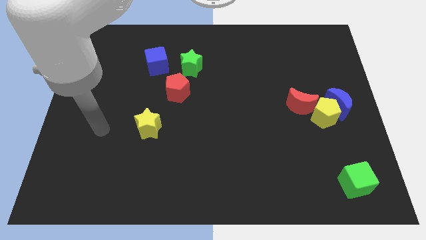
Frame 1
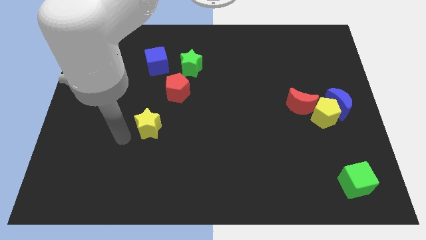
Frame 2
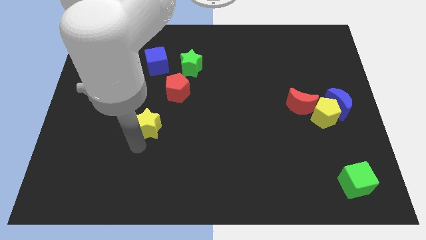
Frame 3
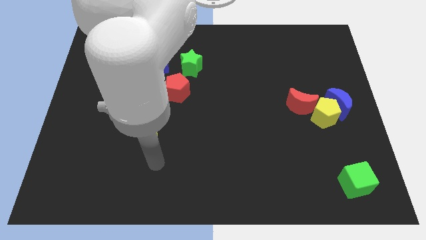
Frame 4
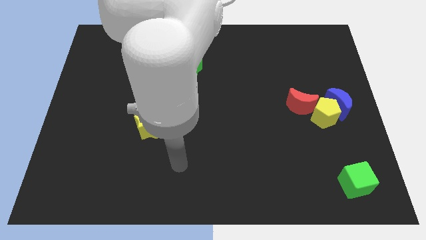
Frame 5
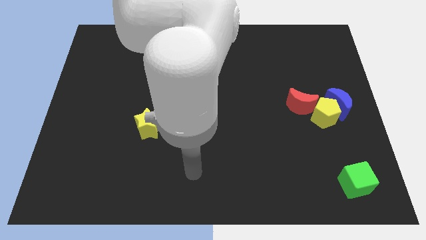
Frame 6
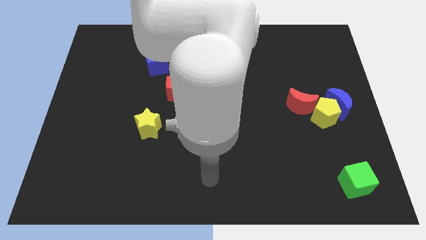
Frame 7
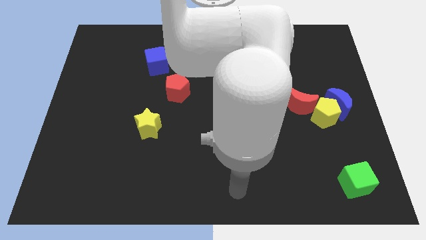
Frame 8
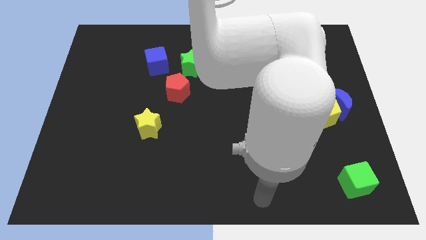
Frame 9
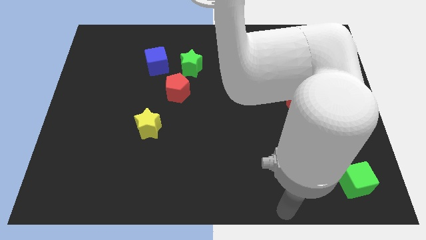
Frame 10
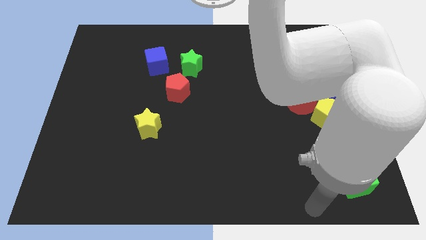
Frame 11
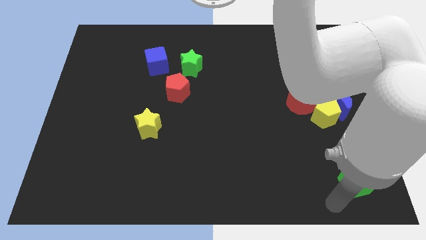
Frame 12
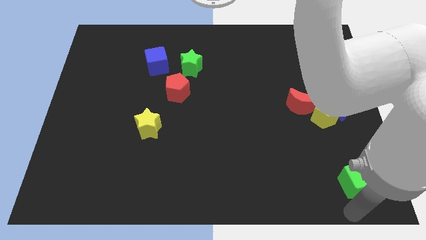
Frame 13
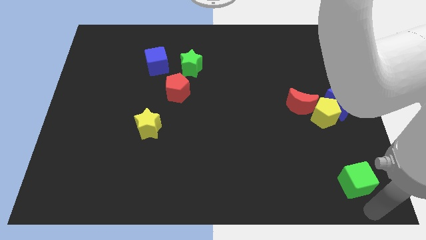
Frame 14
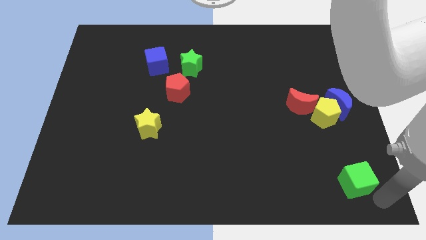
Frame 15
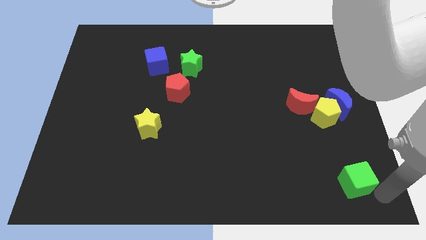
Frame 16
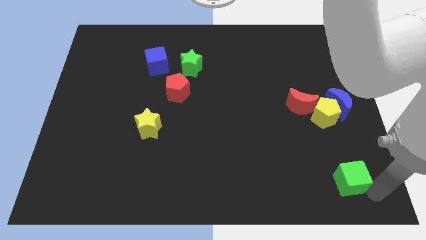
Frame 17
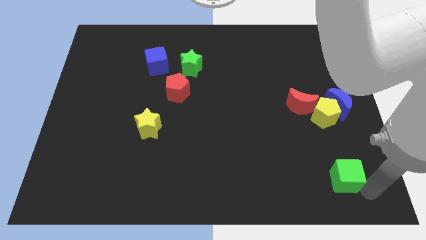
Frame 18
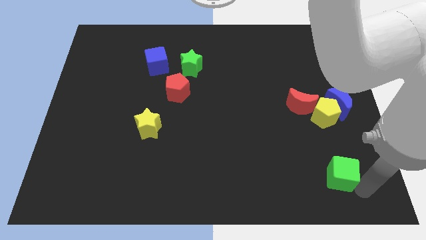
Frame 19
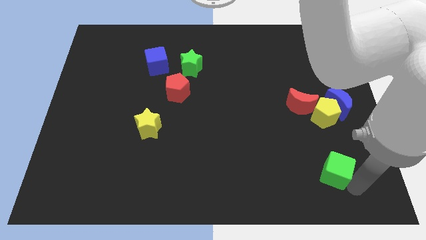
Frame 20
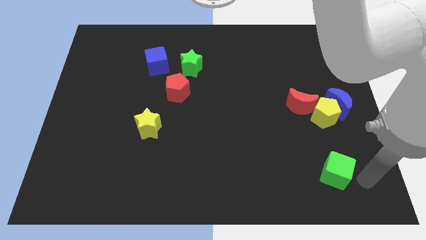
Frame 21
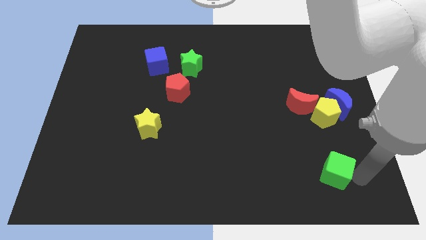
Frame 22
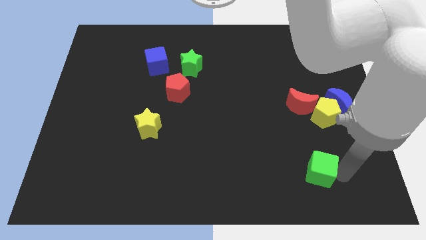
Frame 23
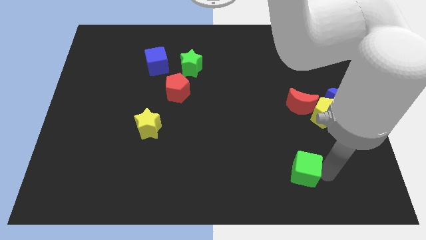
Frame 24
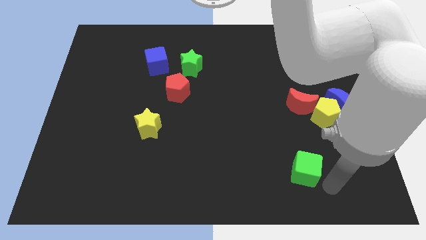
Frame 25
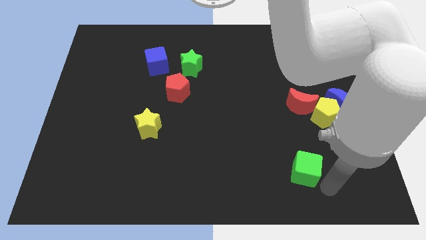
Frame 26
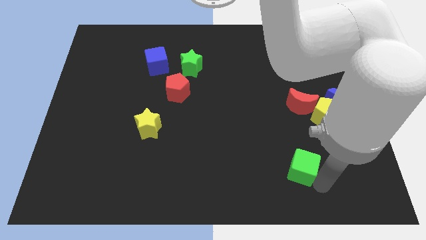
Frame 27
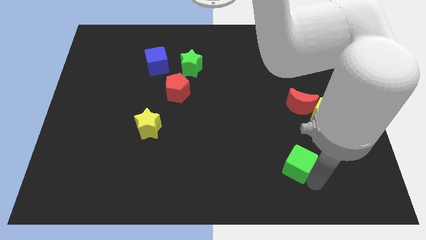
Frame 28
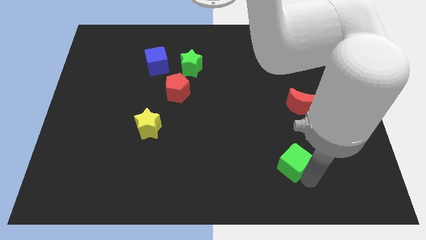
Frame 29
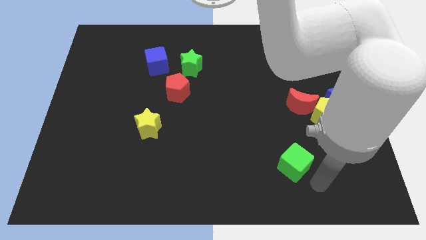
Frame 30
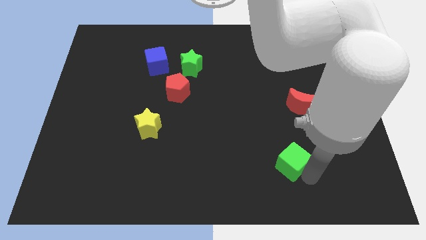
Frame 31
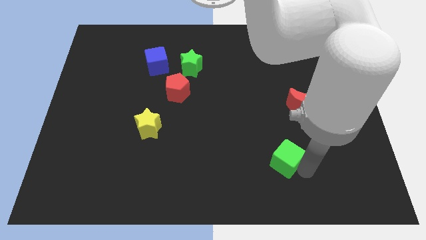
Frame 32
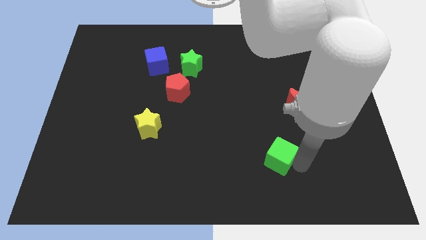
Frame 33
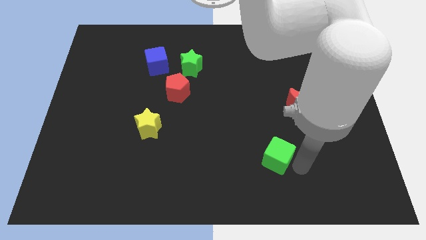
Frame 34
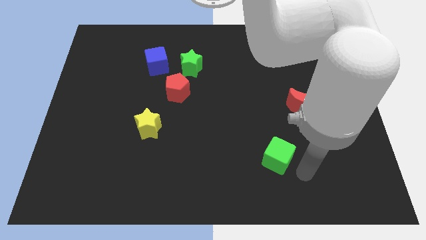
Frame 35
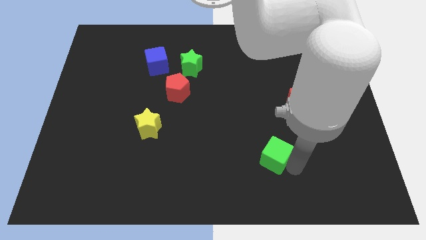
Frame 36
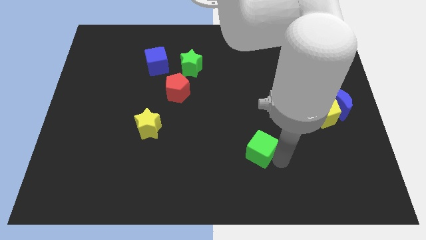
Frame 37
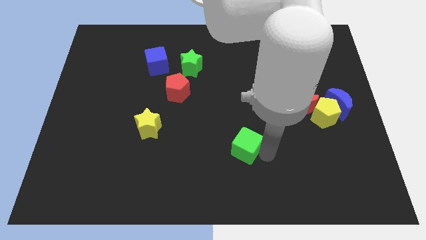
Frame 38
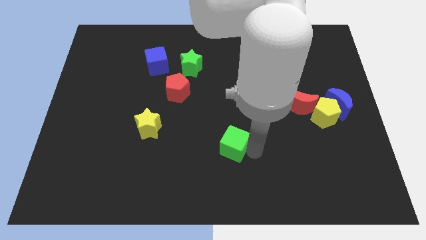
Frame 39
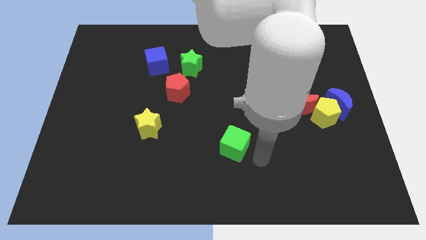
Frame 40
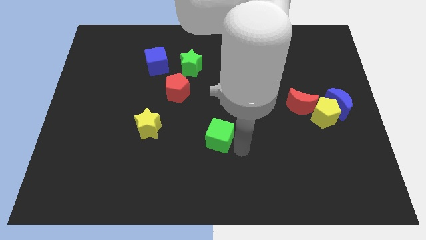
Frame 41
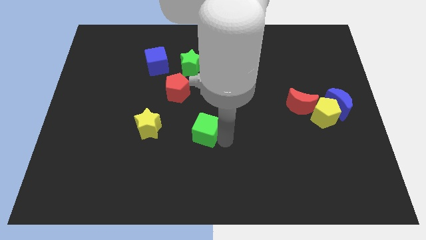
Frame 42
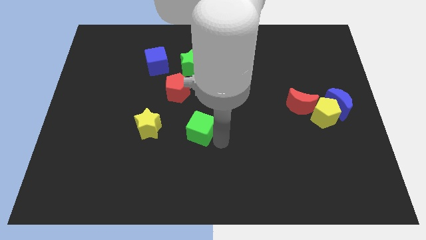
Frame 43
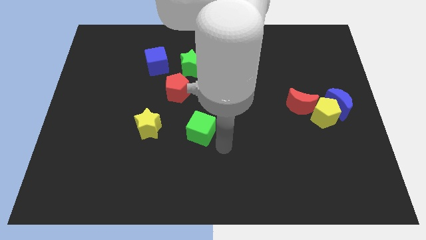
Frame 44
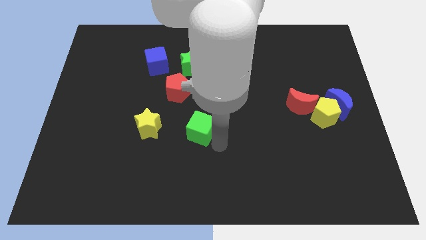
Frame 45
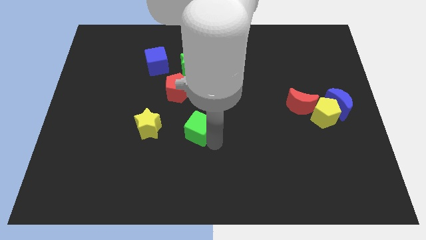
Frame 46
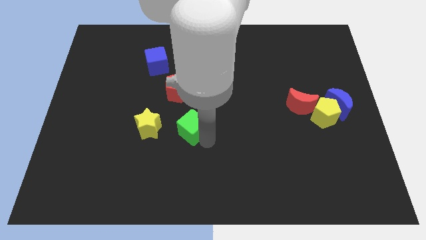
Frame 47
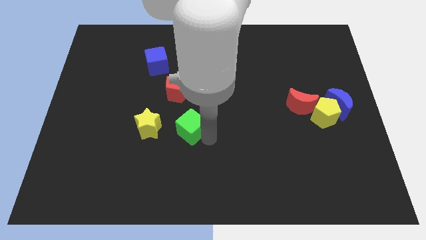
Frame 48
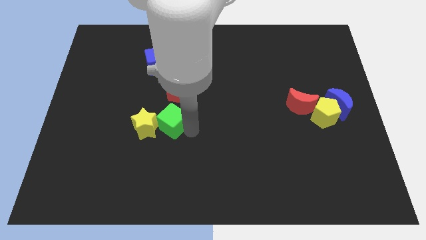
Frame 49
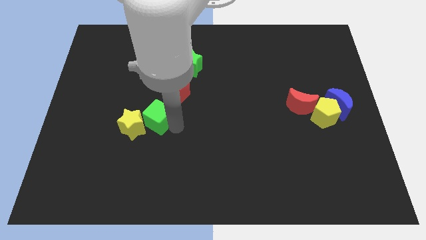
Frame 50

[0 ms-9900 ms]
move the green cube to the bottom left of the red pentagon

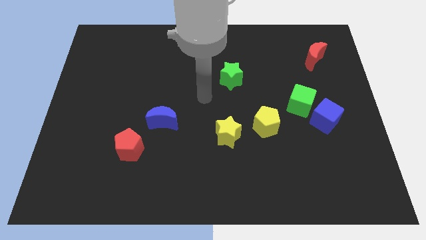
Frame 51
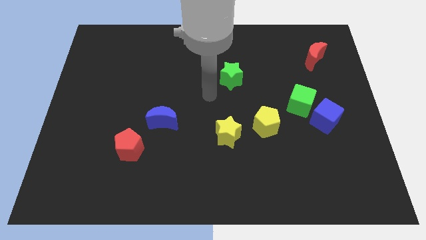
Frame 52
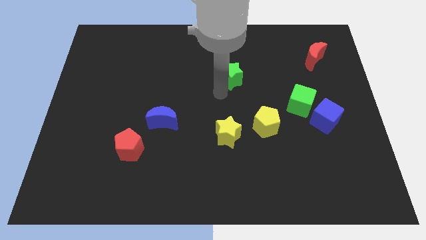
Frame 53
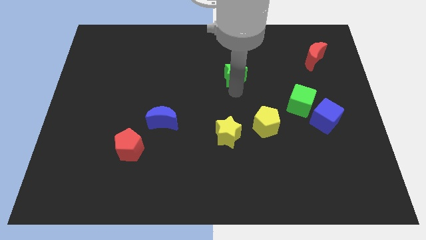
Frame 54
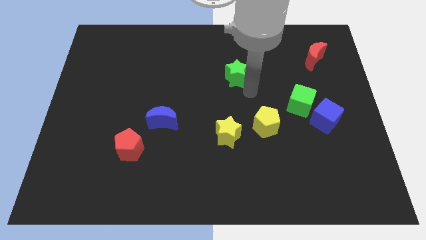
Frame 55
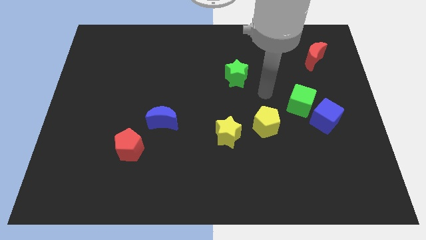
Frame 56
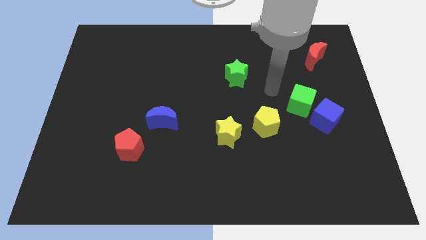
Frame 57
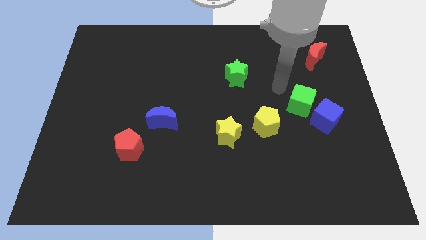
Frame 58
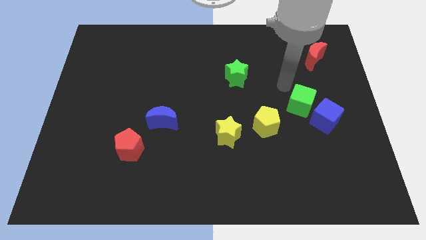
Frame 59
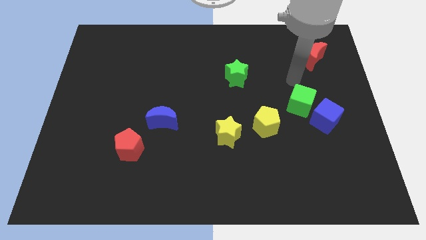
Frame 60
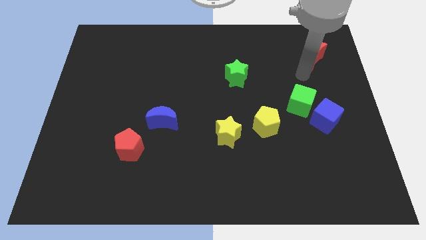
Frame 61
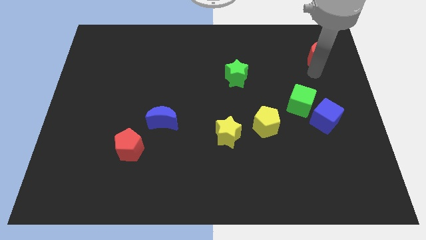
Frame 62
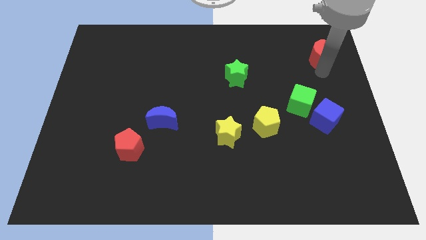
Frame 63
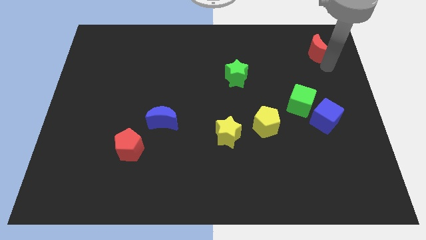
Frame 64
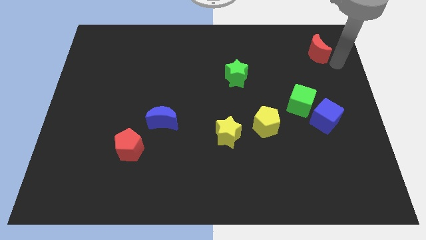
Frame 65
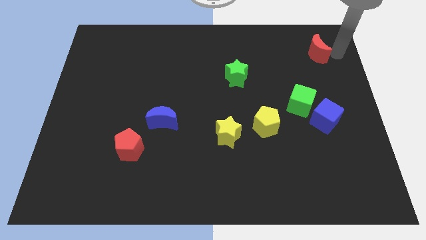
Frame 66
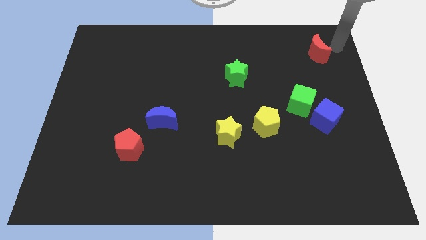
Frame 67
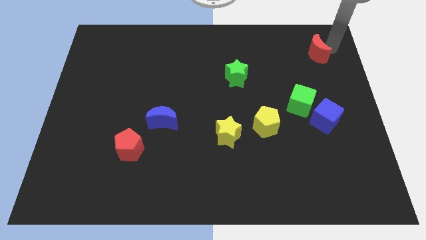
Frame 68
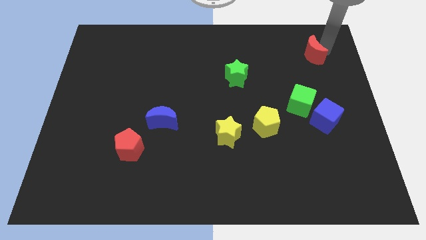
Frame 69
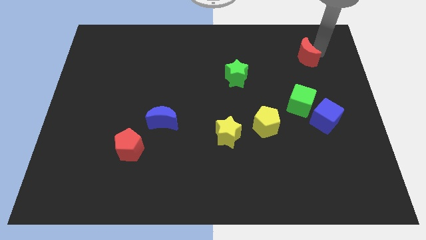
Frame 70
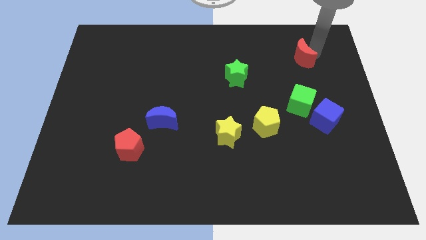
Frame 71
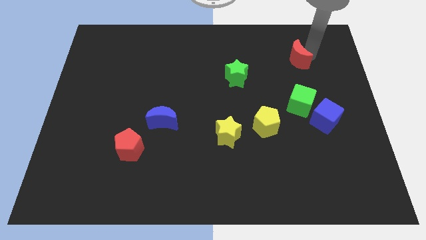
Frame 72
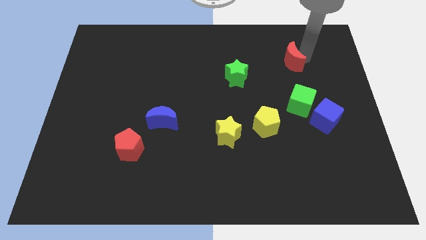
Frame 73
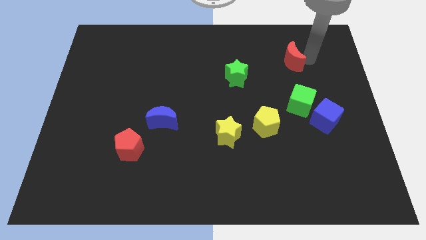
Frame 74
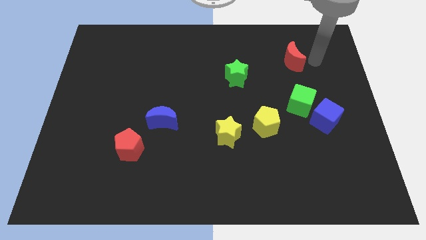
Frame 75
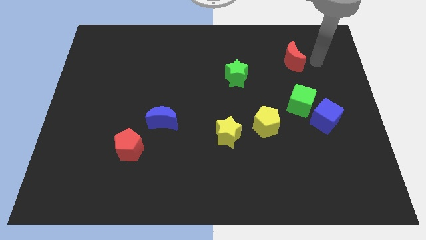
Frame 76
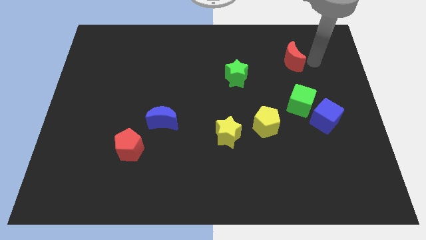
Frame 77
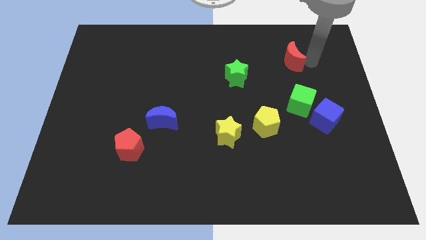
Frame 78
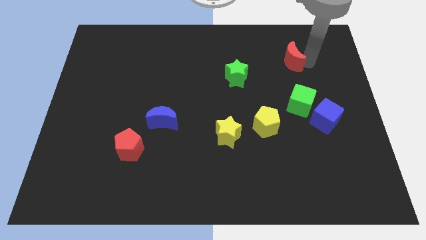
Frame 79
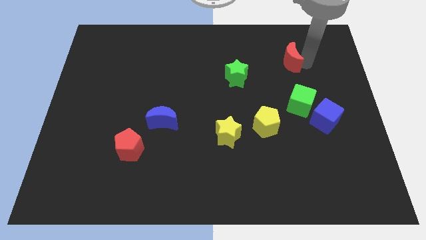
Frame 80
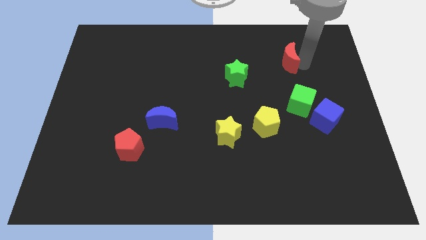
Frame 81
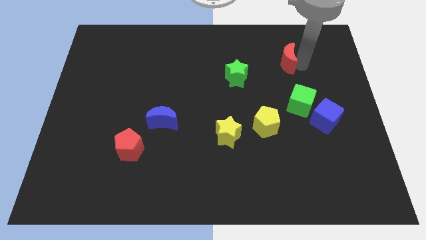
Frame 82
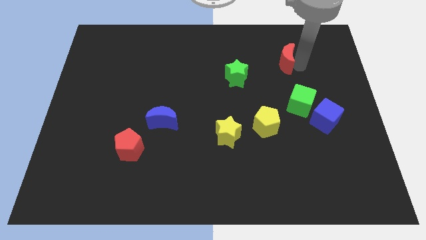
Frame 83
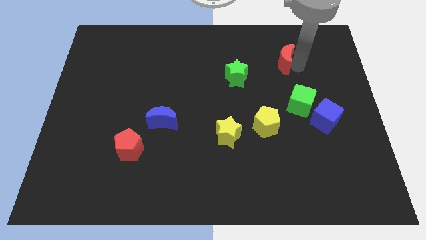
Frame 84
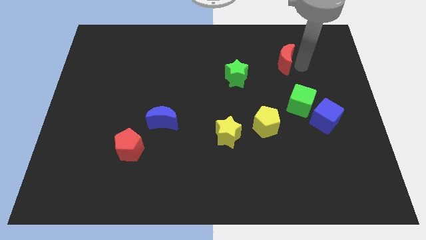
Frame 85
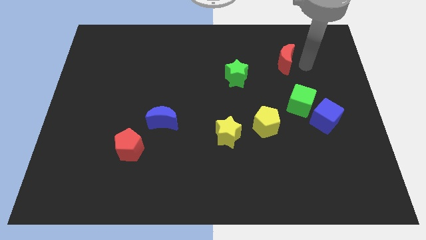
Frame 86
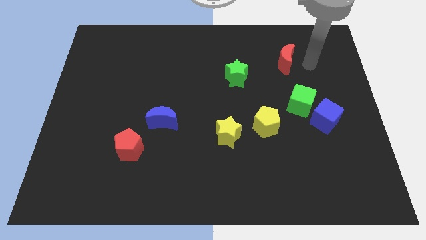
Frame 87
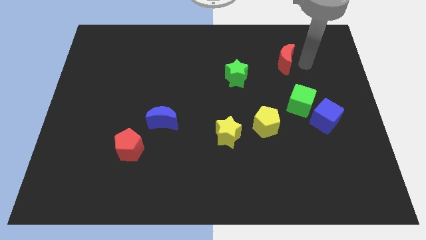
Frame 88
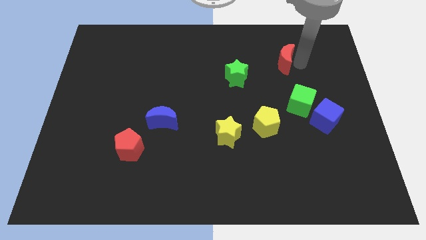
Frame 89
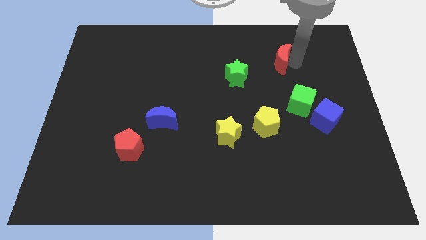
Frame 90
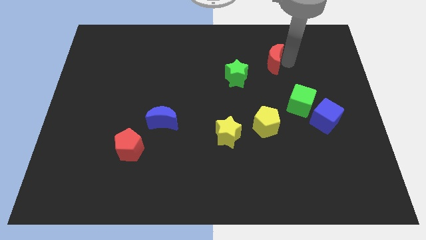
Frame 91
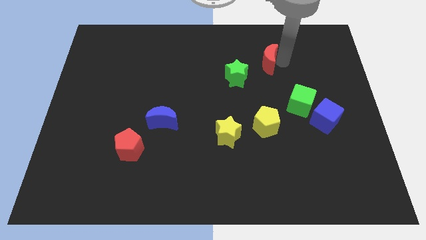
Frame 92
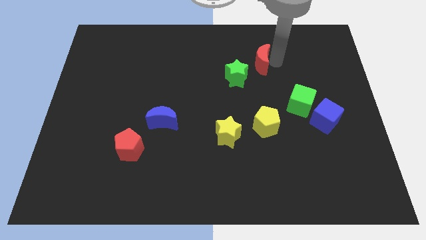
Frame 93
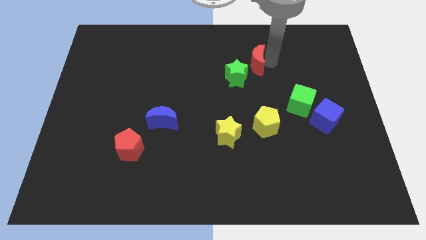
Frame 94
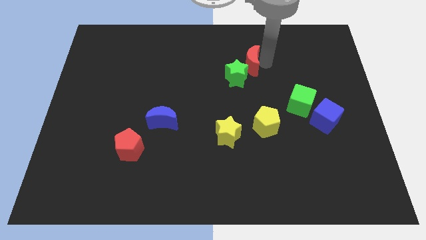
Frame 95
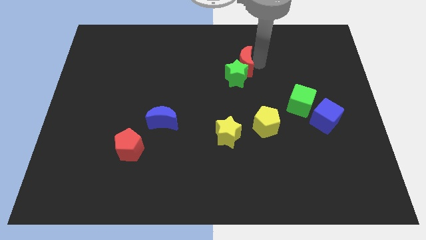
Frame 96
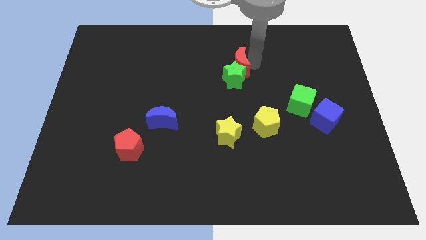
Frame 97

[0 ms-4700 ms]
put the red moon to the top left of the green star
